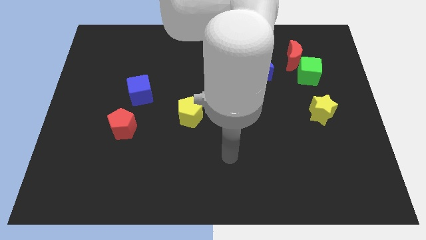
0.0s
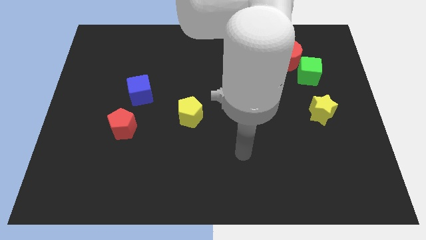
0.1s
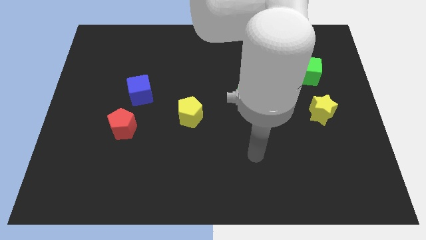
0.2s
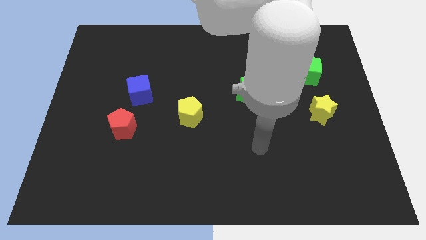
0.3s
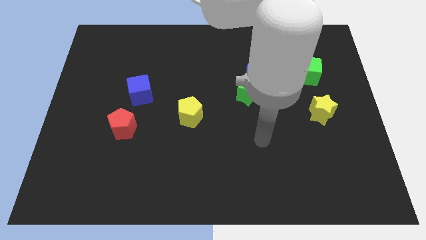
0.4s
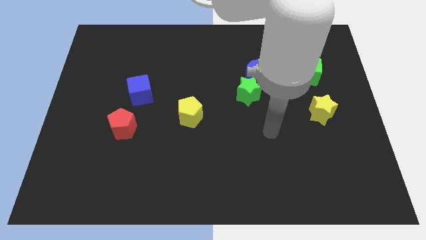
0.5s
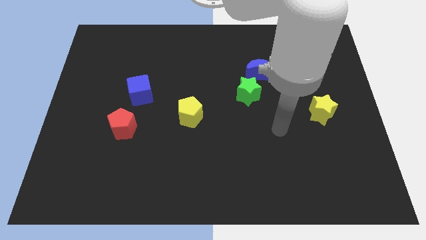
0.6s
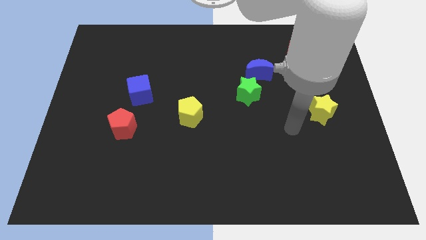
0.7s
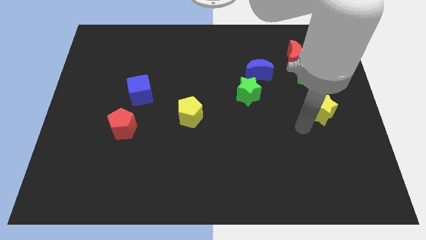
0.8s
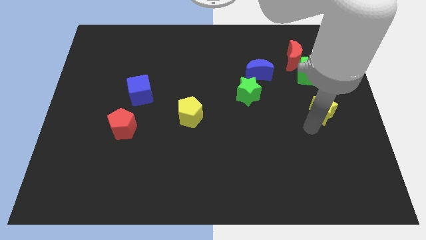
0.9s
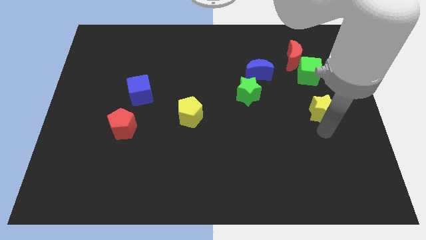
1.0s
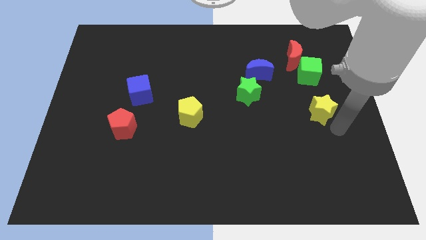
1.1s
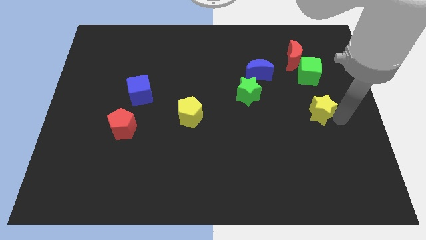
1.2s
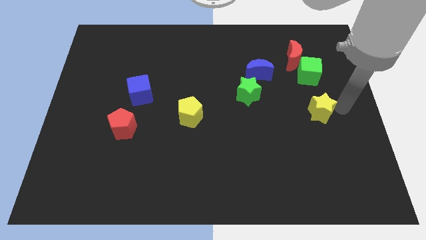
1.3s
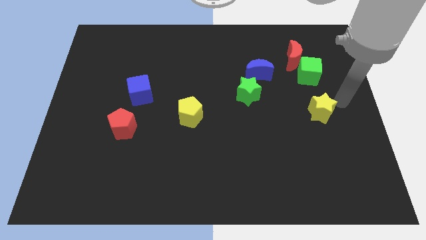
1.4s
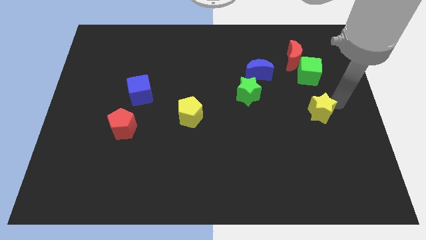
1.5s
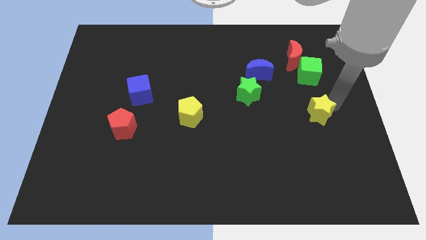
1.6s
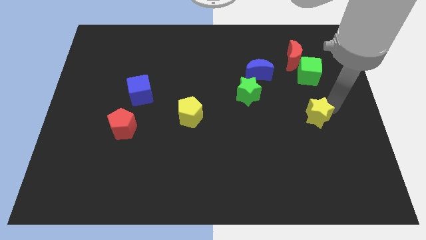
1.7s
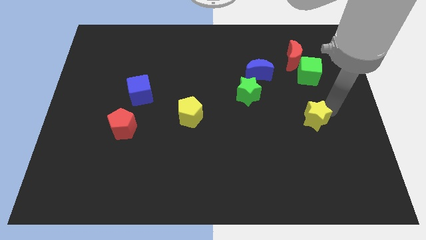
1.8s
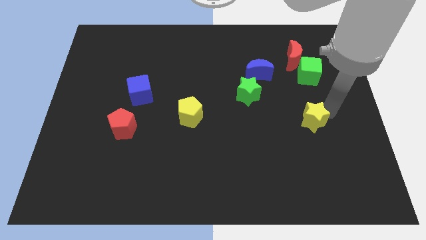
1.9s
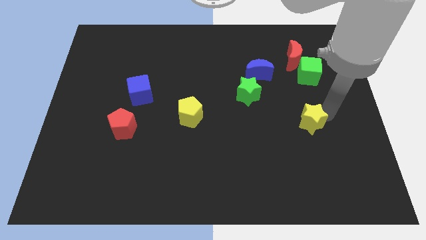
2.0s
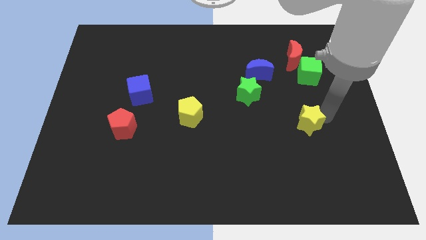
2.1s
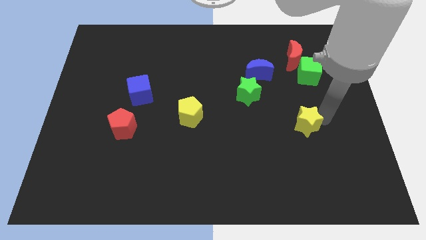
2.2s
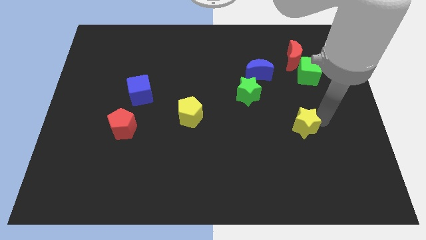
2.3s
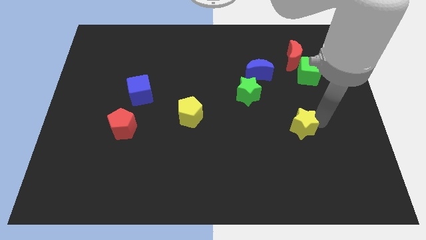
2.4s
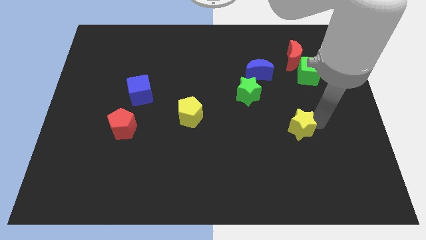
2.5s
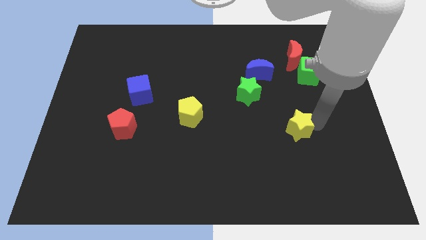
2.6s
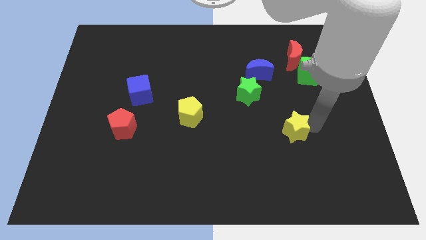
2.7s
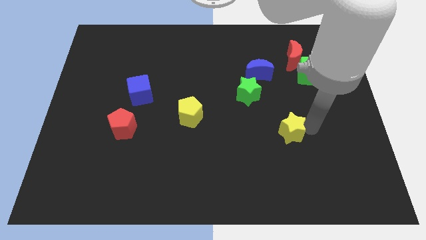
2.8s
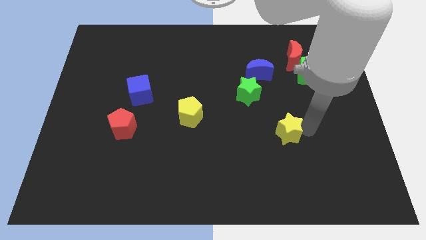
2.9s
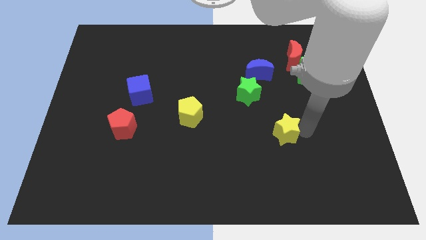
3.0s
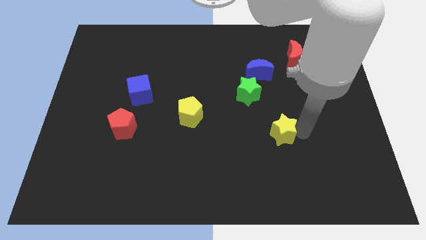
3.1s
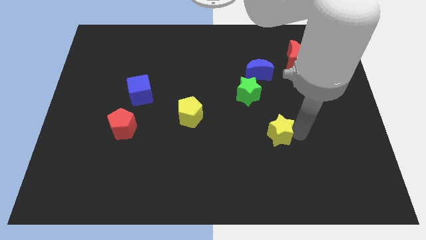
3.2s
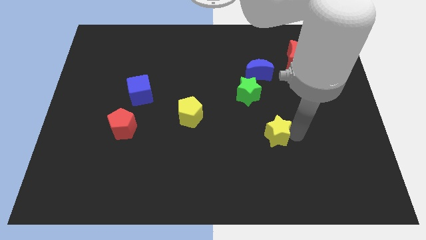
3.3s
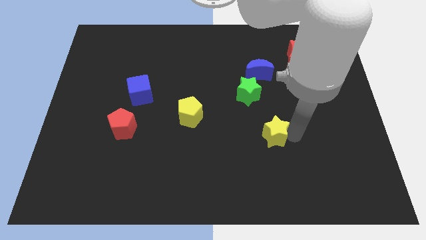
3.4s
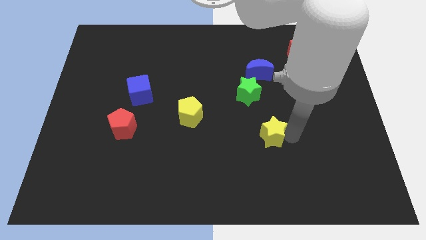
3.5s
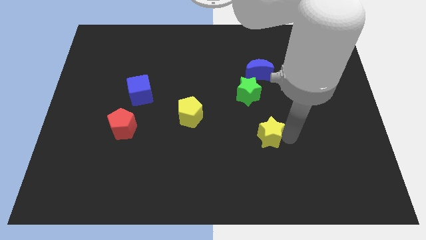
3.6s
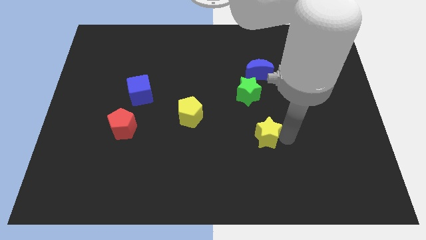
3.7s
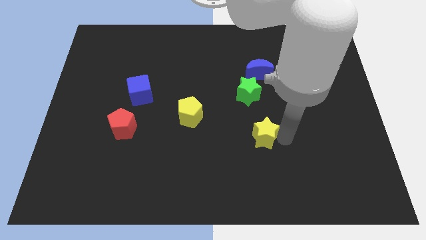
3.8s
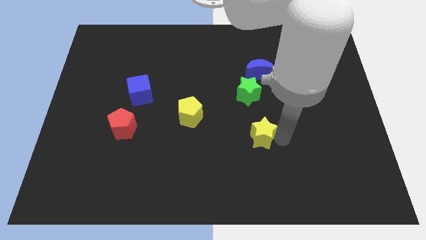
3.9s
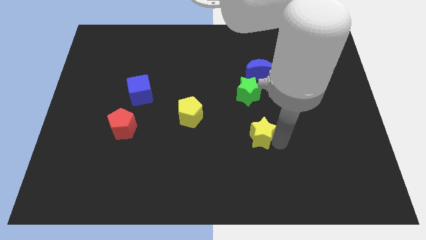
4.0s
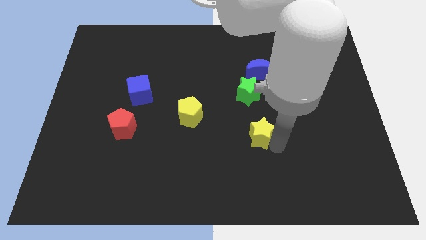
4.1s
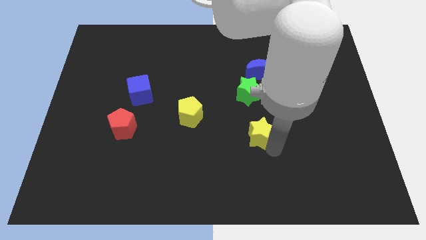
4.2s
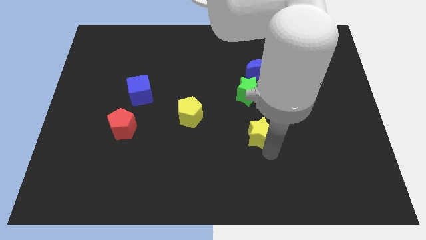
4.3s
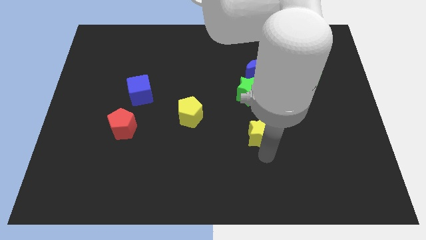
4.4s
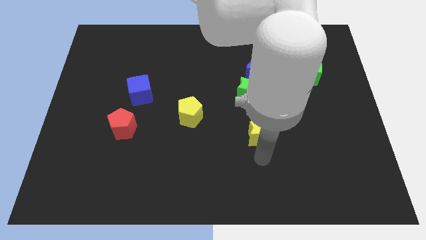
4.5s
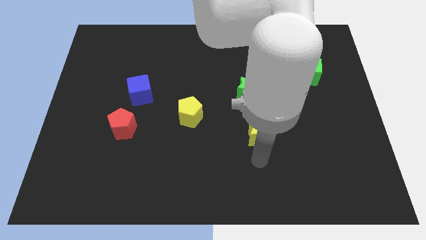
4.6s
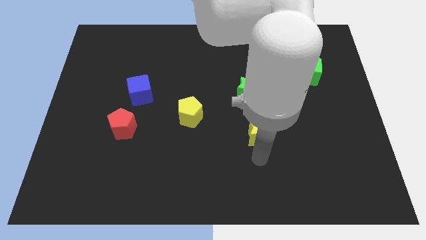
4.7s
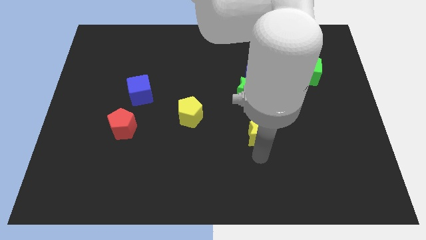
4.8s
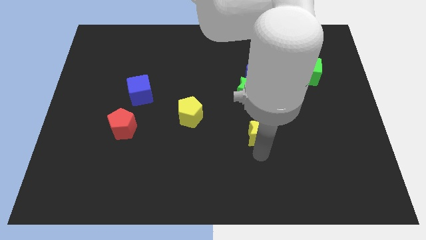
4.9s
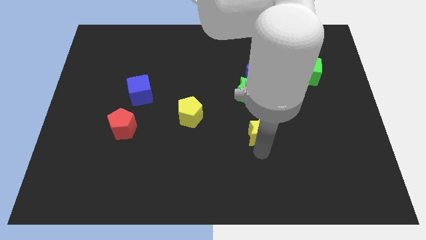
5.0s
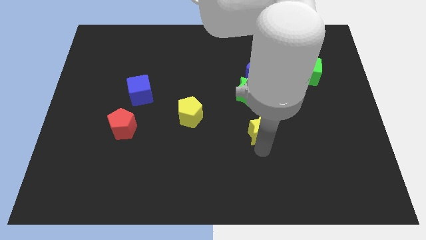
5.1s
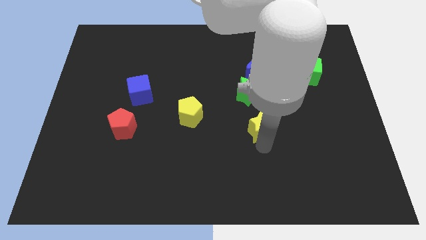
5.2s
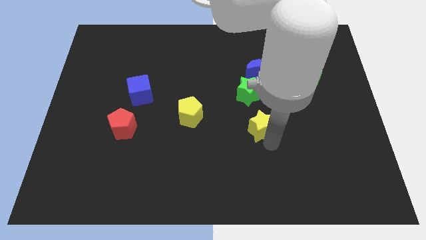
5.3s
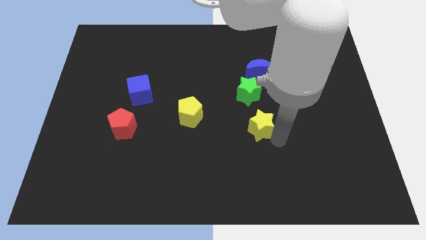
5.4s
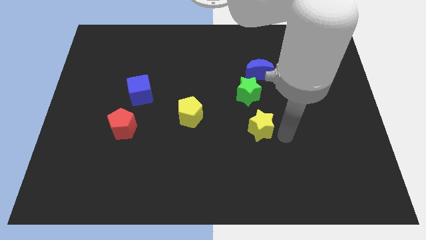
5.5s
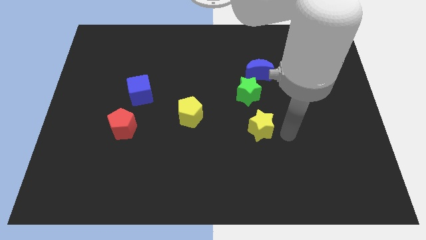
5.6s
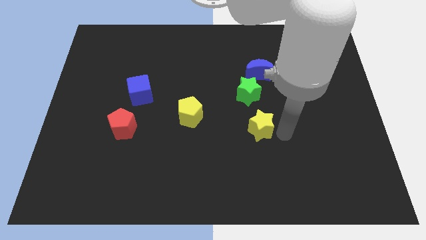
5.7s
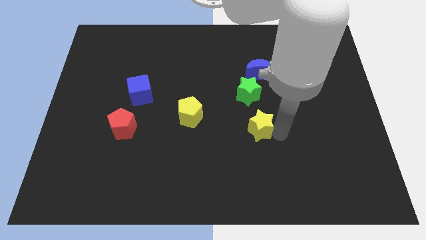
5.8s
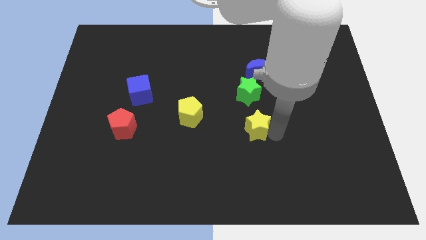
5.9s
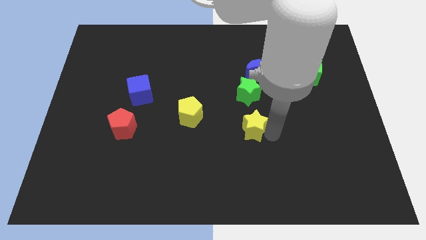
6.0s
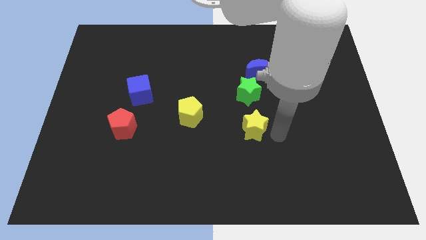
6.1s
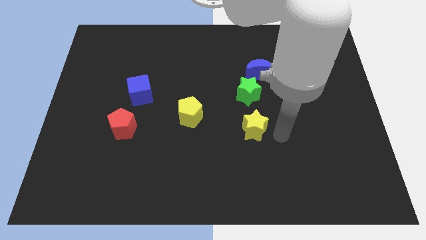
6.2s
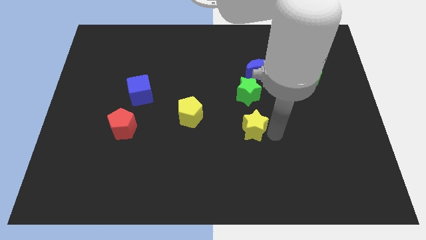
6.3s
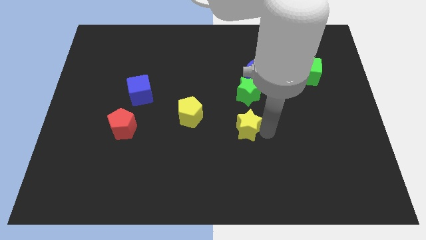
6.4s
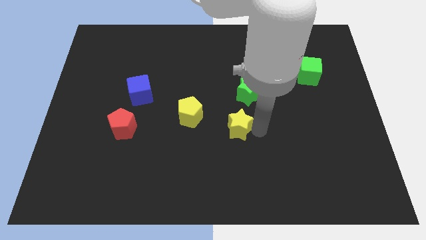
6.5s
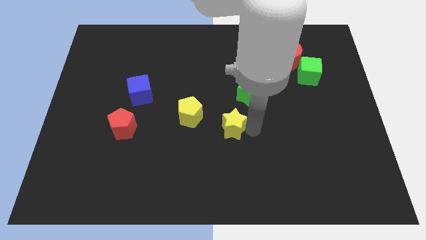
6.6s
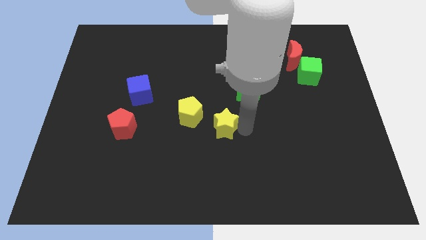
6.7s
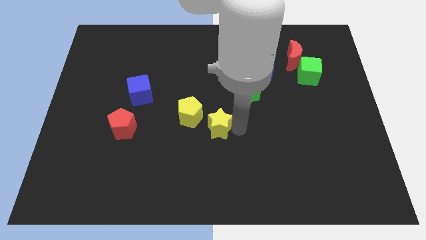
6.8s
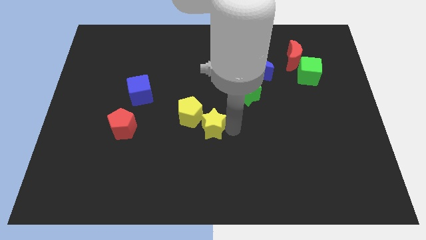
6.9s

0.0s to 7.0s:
slide the yellow star next to the yellow pentagon
